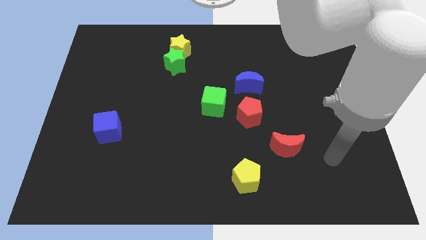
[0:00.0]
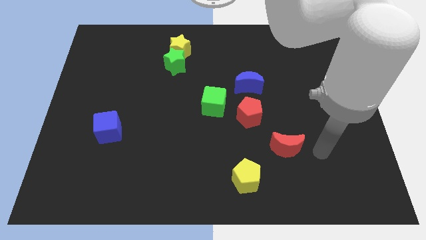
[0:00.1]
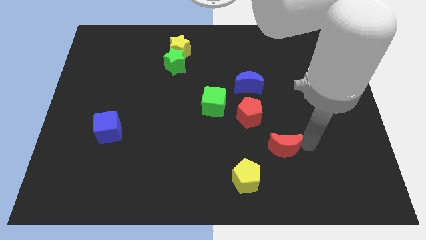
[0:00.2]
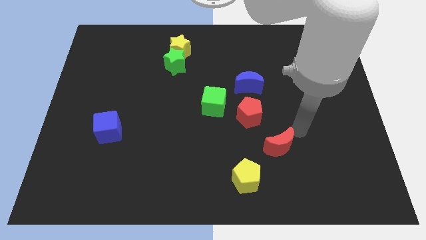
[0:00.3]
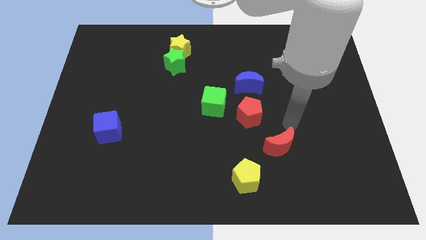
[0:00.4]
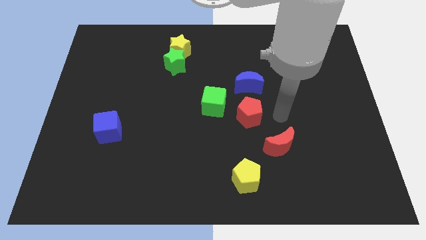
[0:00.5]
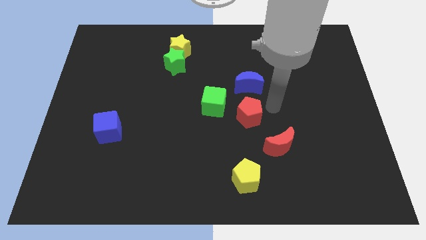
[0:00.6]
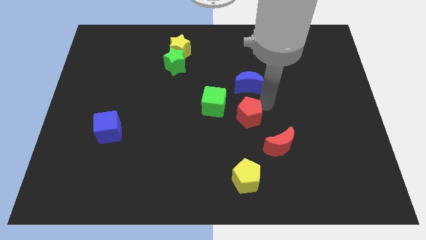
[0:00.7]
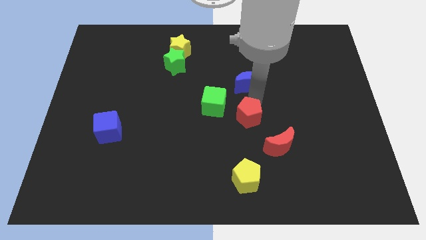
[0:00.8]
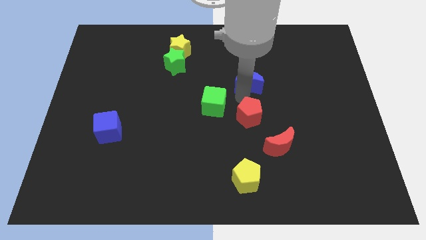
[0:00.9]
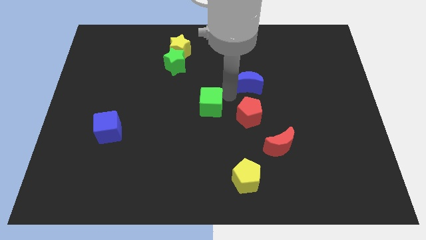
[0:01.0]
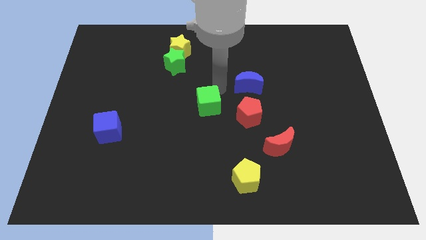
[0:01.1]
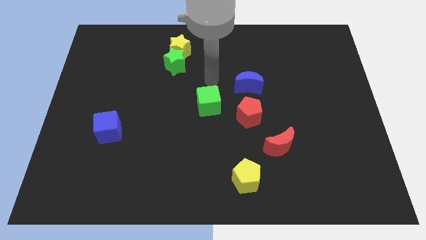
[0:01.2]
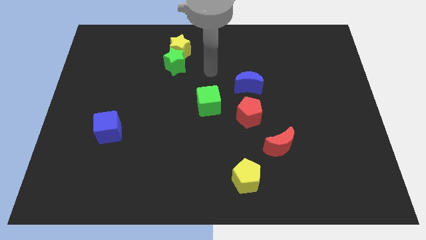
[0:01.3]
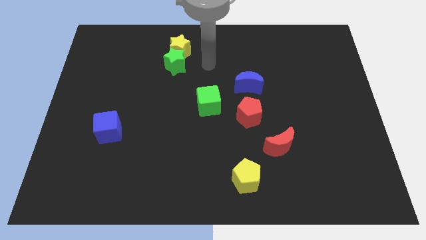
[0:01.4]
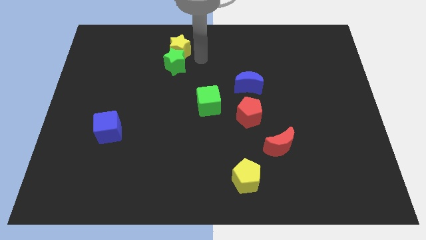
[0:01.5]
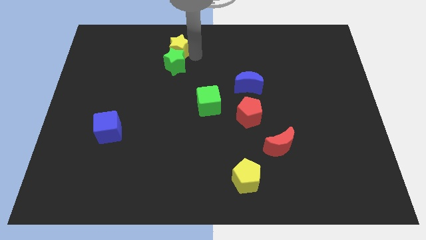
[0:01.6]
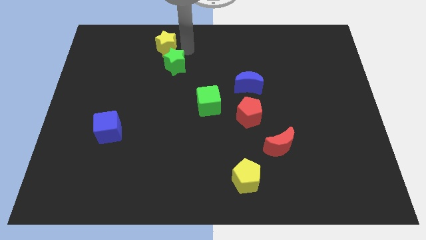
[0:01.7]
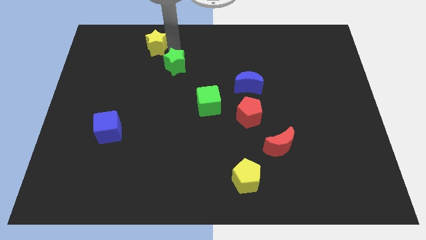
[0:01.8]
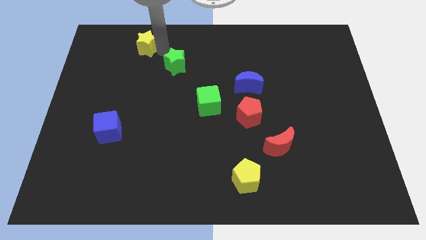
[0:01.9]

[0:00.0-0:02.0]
move the green star away from the yellow star

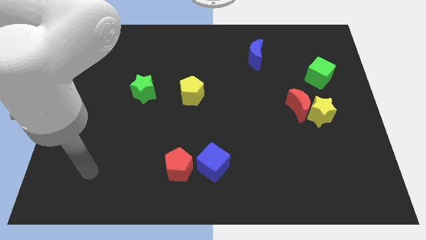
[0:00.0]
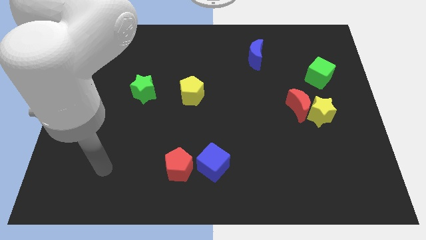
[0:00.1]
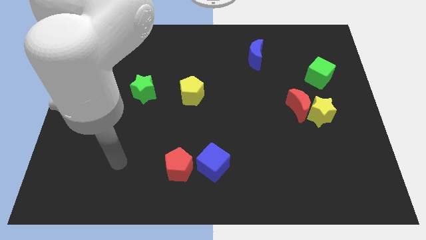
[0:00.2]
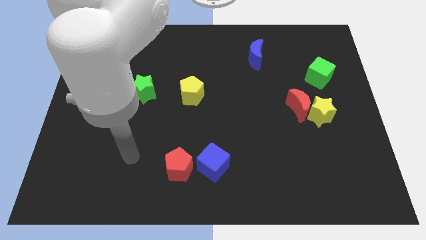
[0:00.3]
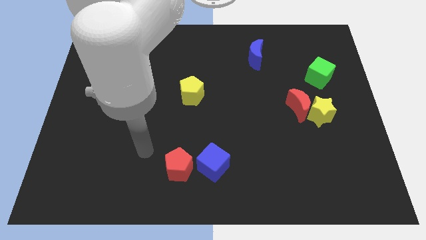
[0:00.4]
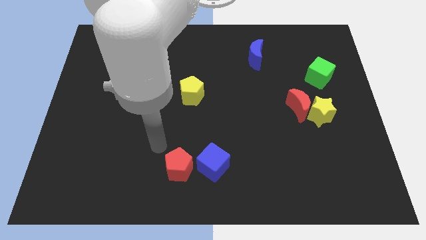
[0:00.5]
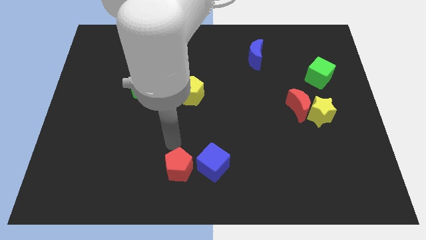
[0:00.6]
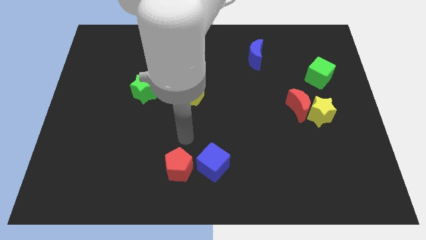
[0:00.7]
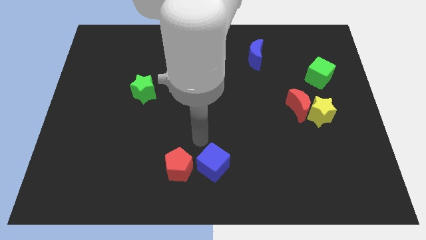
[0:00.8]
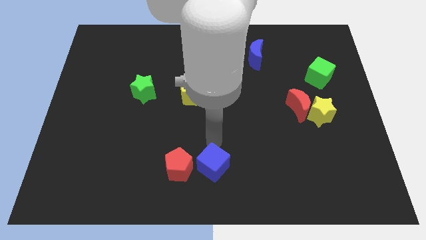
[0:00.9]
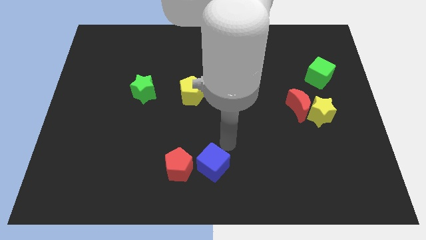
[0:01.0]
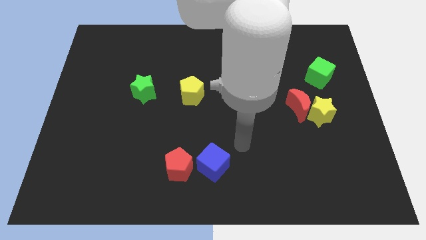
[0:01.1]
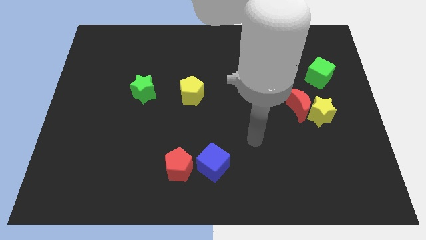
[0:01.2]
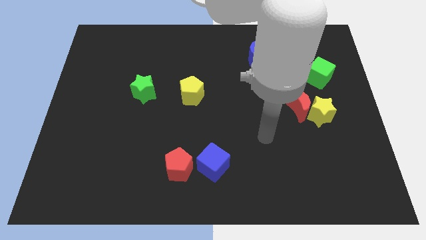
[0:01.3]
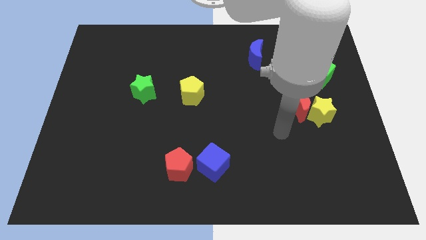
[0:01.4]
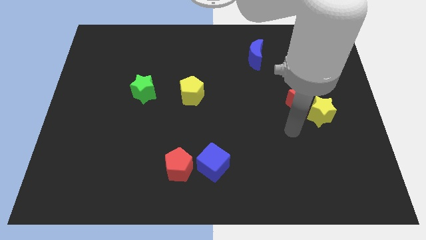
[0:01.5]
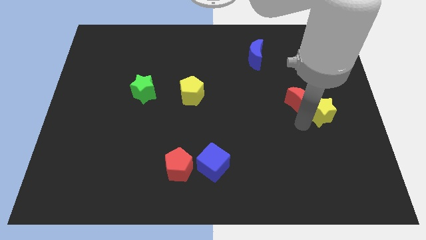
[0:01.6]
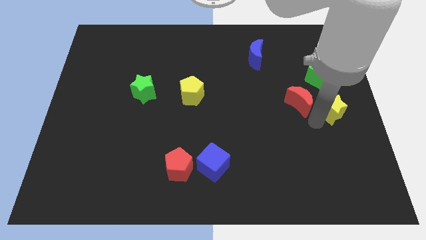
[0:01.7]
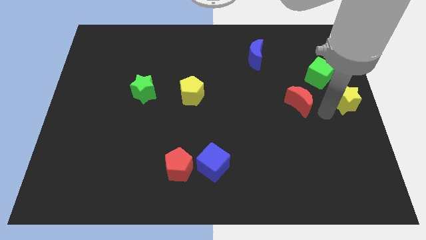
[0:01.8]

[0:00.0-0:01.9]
move the red moon away from the yellow star

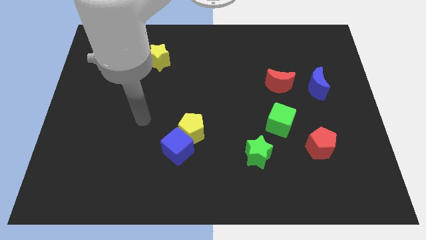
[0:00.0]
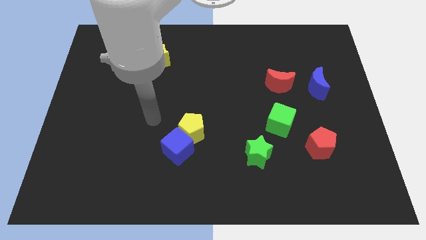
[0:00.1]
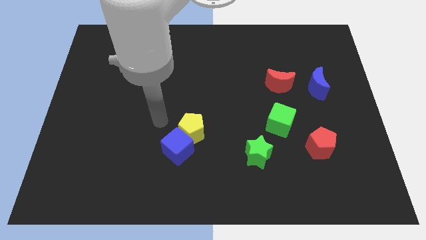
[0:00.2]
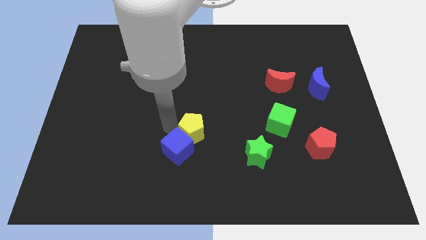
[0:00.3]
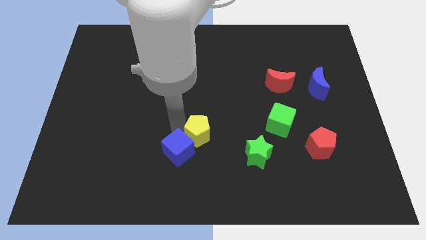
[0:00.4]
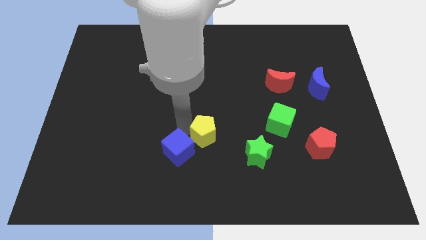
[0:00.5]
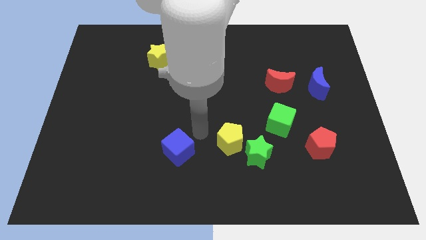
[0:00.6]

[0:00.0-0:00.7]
separate the blue cube from the yellow pentagon

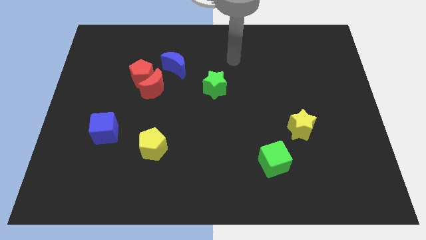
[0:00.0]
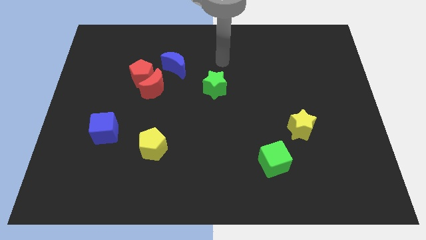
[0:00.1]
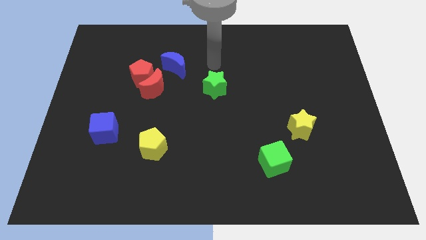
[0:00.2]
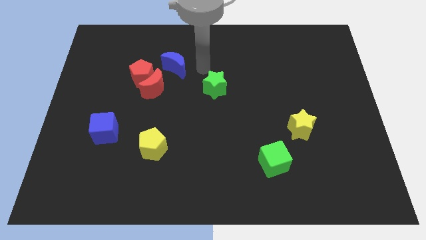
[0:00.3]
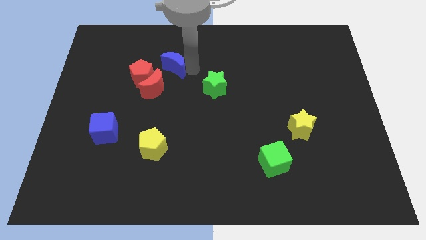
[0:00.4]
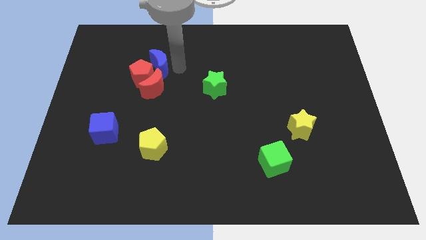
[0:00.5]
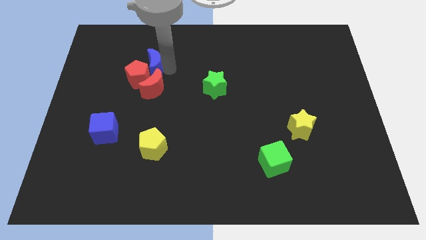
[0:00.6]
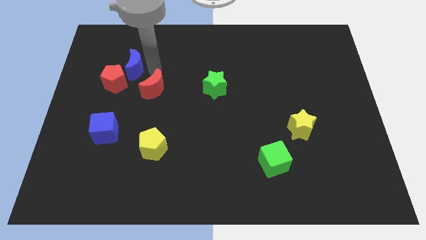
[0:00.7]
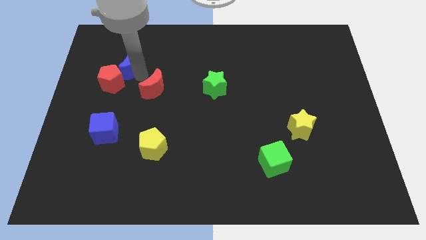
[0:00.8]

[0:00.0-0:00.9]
separate the red moon from the red pentagon and blue moon

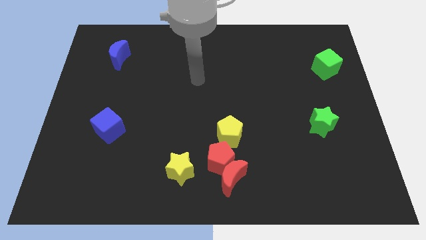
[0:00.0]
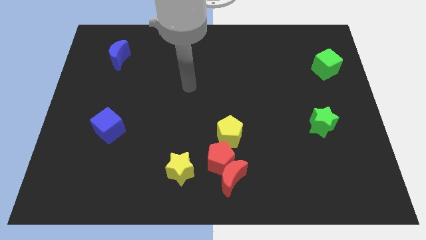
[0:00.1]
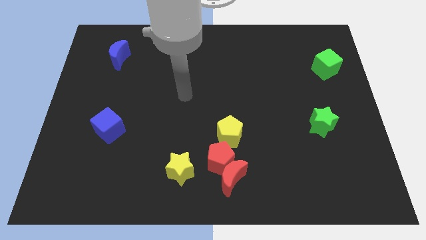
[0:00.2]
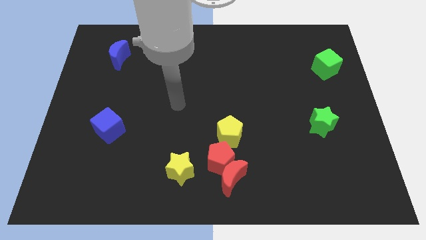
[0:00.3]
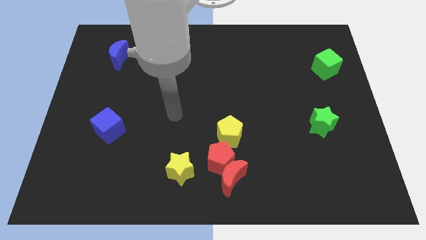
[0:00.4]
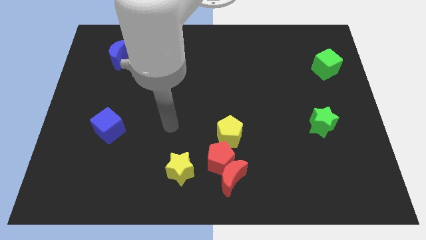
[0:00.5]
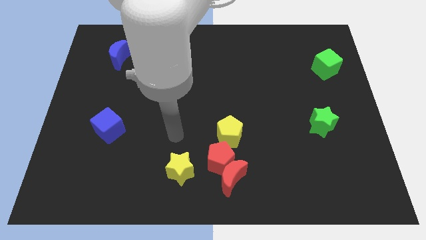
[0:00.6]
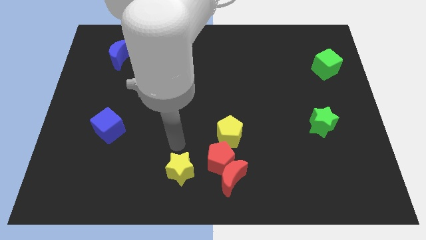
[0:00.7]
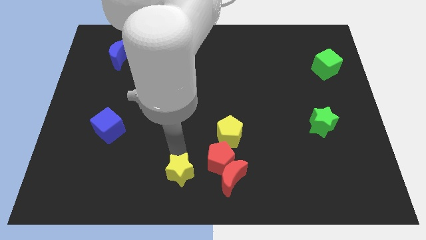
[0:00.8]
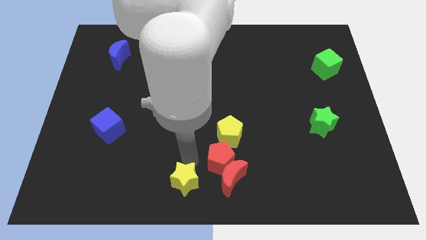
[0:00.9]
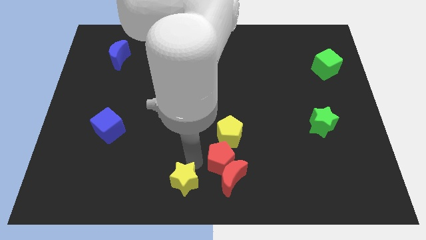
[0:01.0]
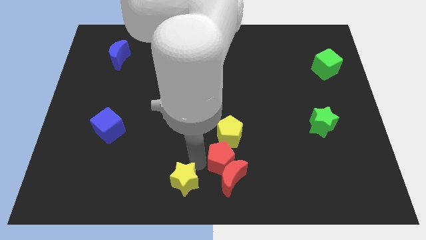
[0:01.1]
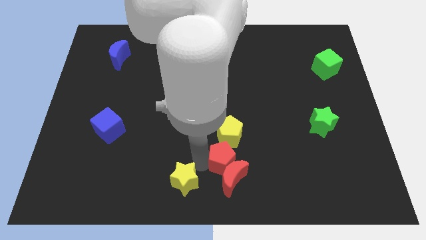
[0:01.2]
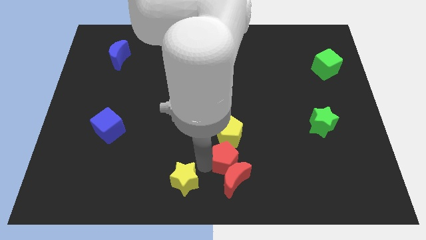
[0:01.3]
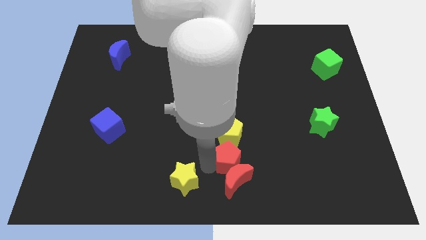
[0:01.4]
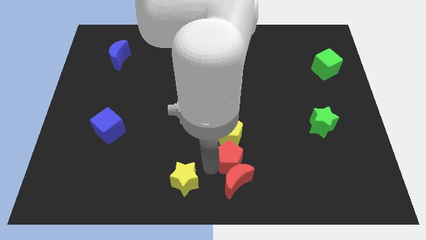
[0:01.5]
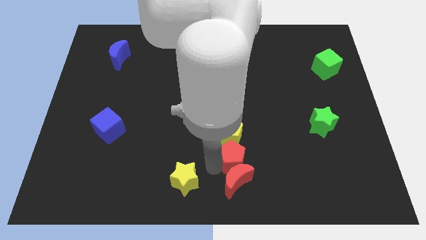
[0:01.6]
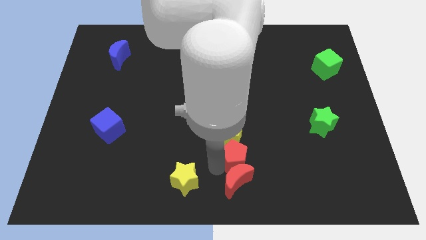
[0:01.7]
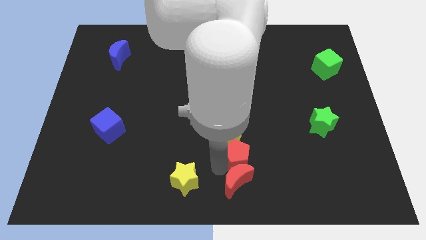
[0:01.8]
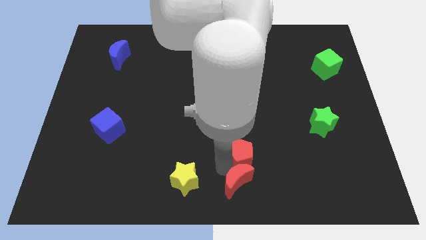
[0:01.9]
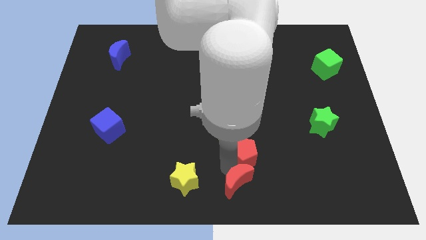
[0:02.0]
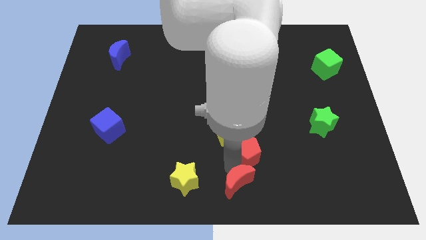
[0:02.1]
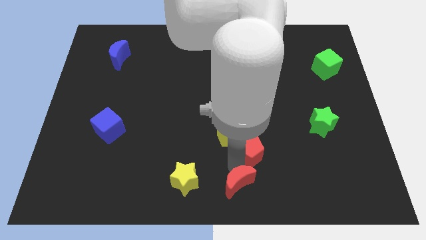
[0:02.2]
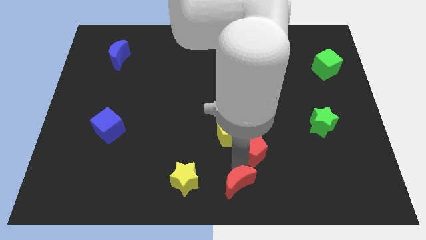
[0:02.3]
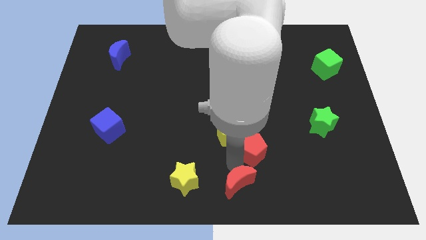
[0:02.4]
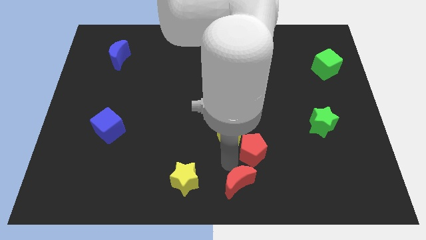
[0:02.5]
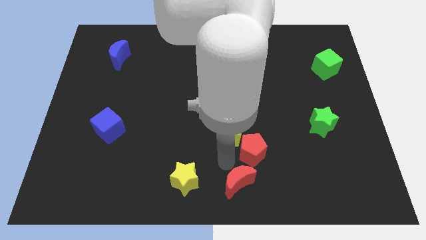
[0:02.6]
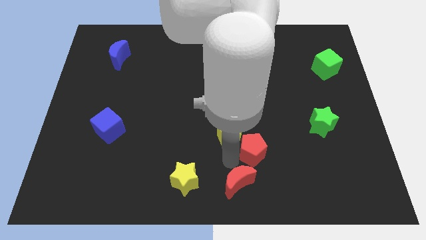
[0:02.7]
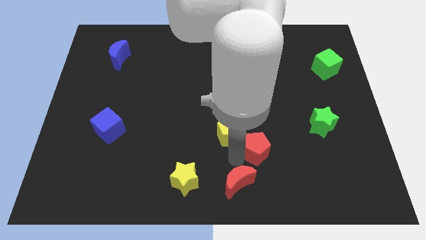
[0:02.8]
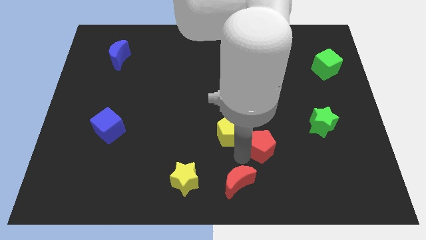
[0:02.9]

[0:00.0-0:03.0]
separate the red pentagon from the red moon, yellow pentagon, and yellow star

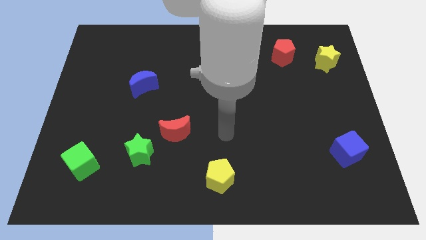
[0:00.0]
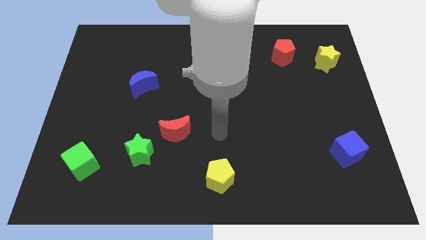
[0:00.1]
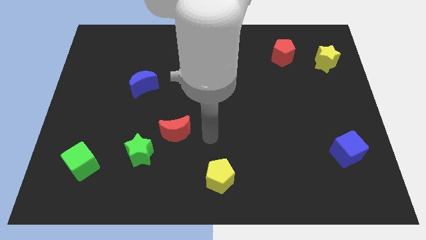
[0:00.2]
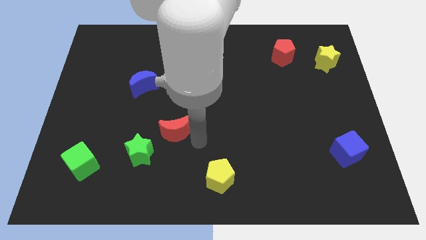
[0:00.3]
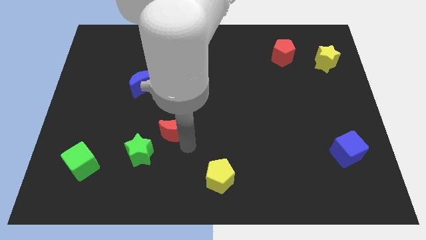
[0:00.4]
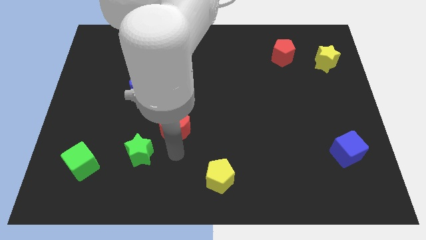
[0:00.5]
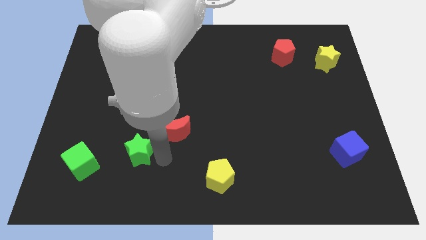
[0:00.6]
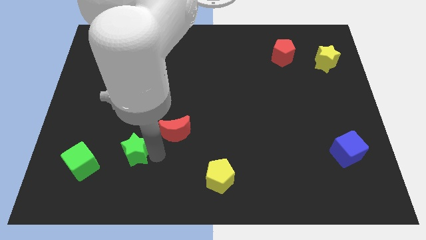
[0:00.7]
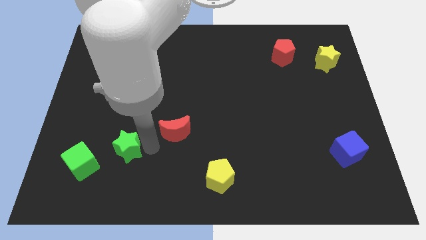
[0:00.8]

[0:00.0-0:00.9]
move the red moon away from the green star
